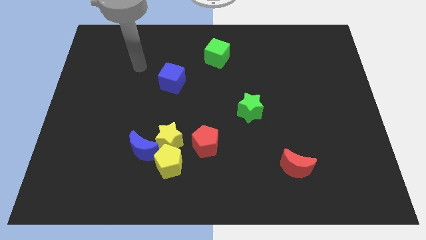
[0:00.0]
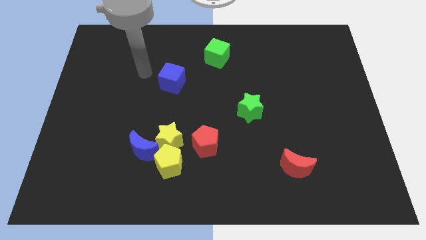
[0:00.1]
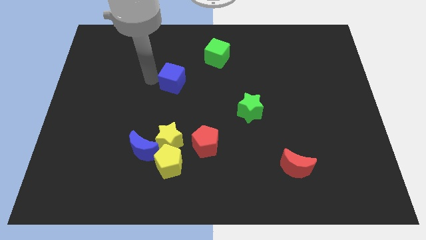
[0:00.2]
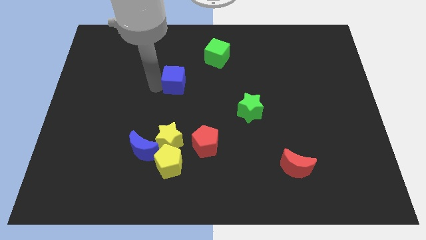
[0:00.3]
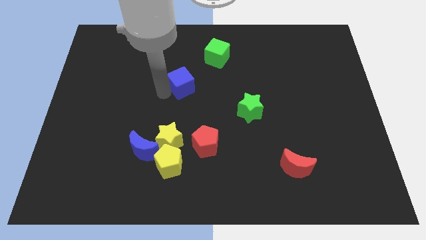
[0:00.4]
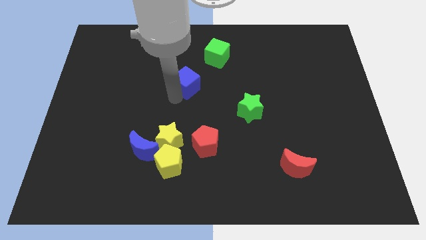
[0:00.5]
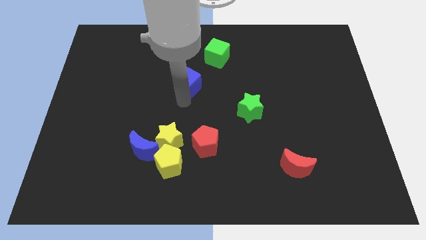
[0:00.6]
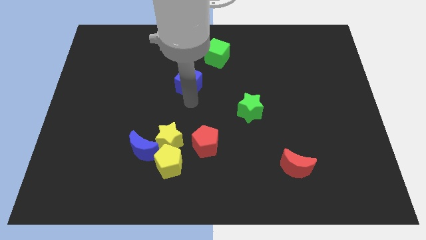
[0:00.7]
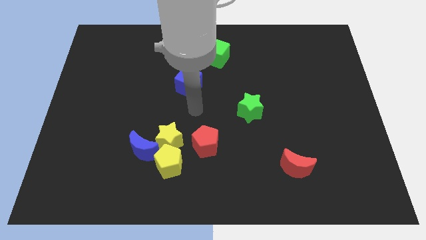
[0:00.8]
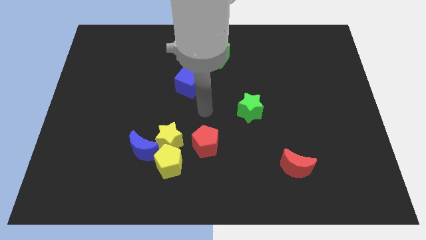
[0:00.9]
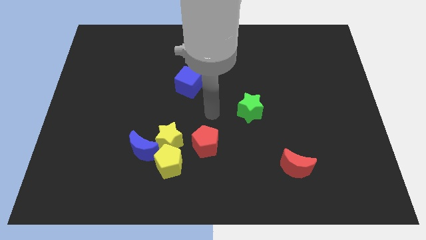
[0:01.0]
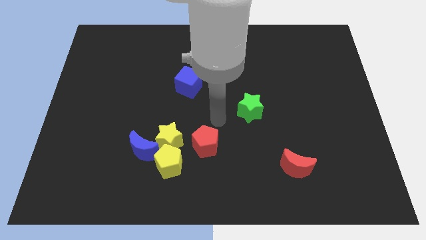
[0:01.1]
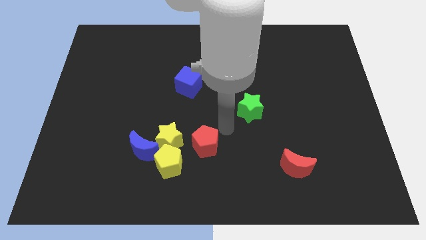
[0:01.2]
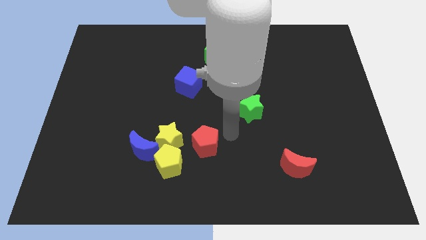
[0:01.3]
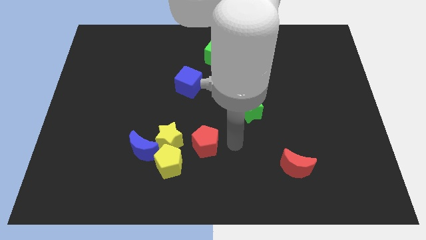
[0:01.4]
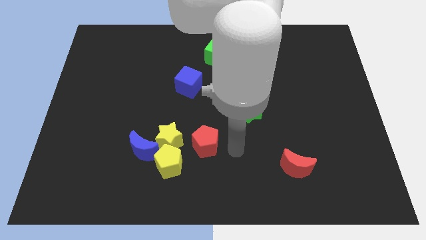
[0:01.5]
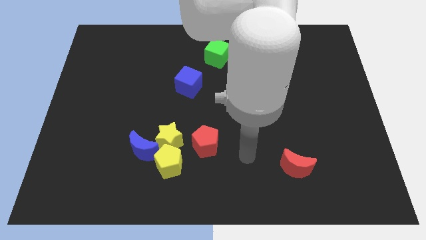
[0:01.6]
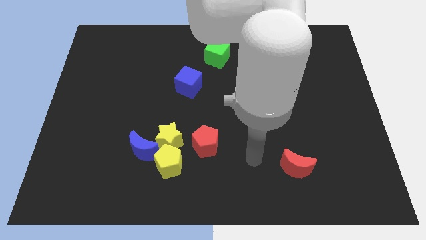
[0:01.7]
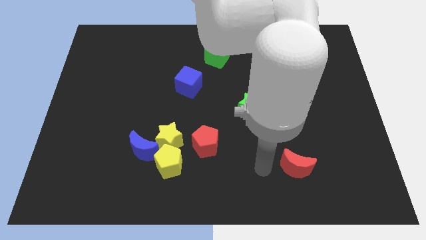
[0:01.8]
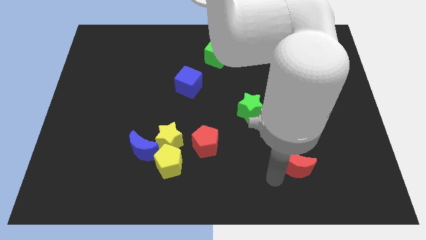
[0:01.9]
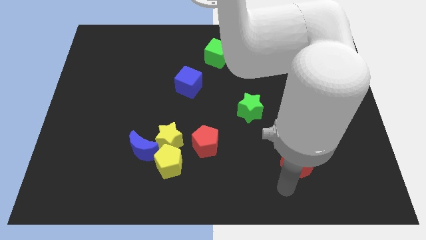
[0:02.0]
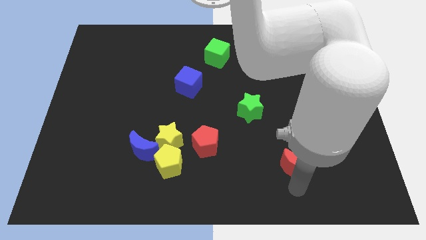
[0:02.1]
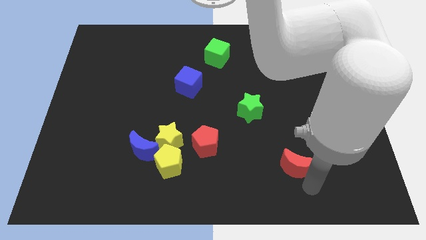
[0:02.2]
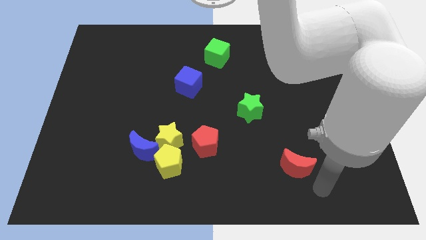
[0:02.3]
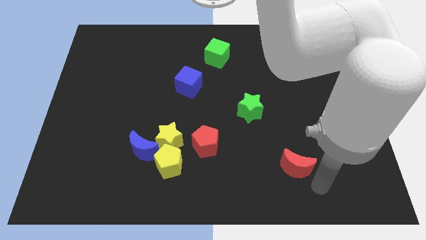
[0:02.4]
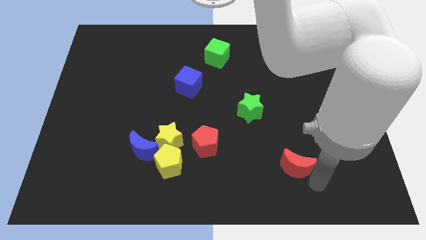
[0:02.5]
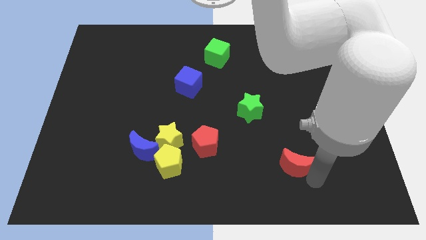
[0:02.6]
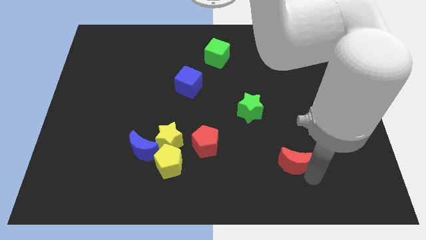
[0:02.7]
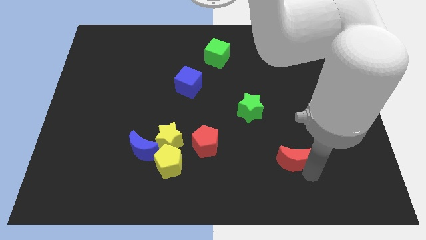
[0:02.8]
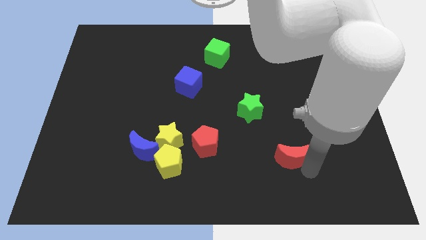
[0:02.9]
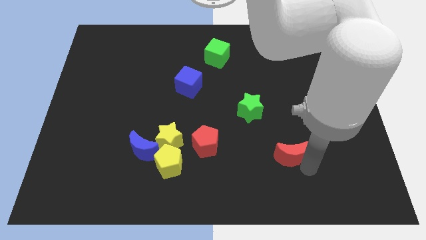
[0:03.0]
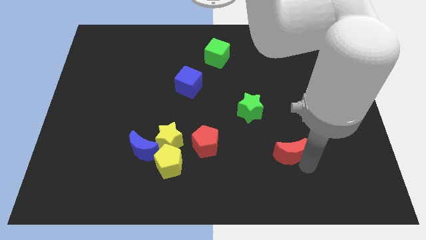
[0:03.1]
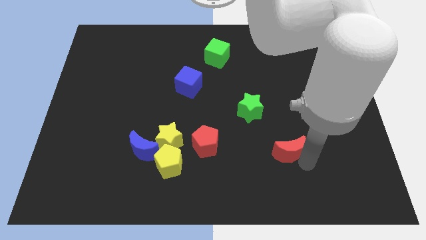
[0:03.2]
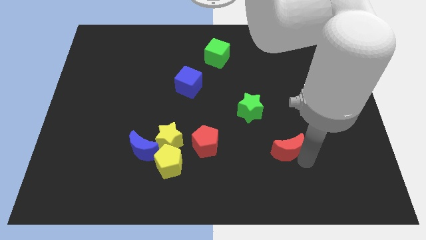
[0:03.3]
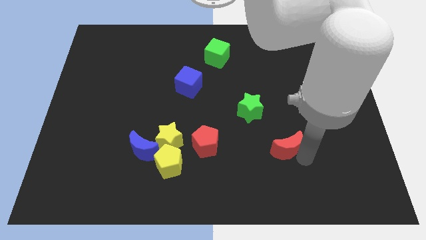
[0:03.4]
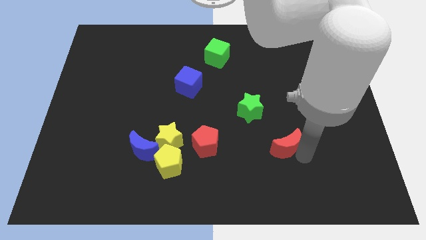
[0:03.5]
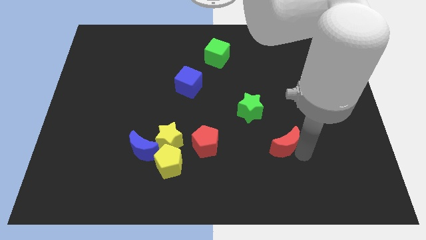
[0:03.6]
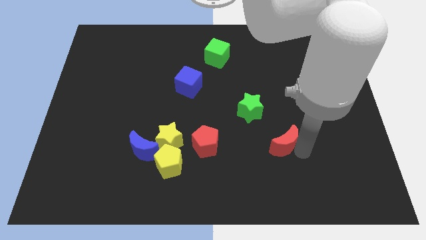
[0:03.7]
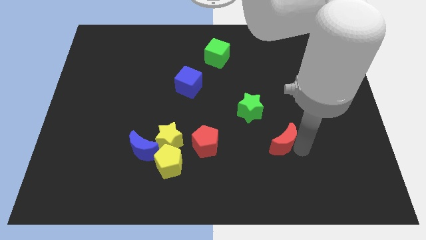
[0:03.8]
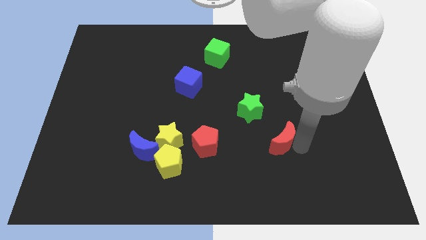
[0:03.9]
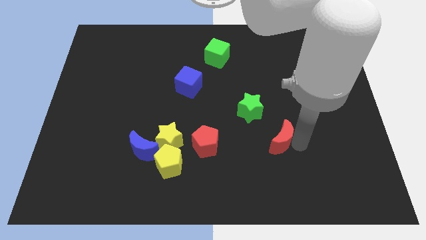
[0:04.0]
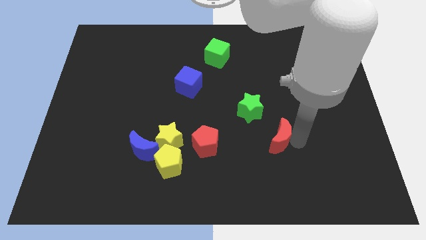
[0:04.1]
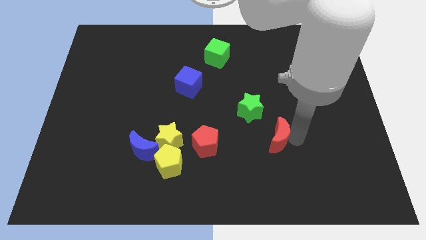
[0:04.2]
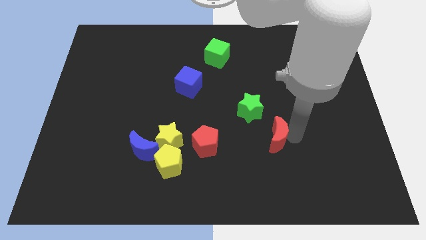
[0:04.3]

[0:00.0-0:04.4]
push the red moon up and then left a little bit

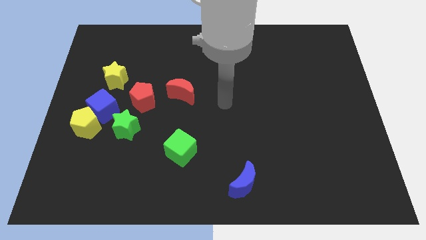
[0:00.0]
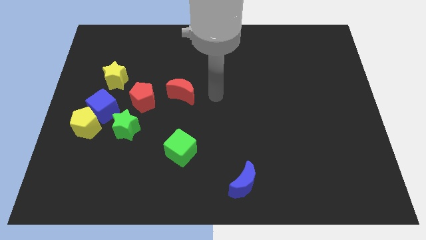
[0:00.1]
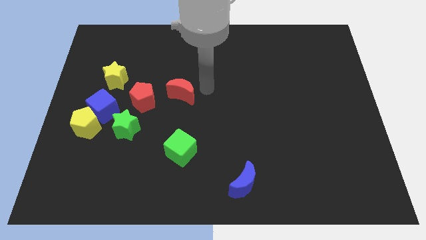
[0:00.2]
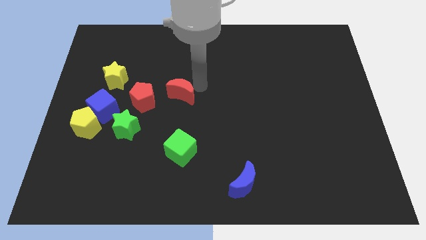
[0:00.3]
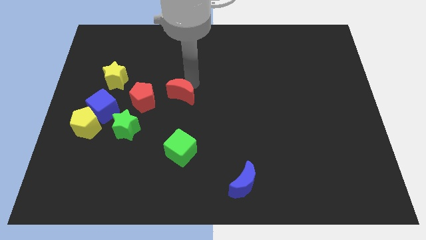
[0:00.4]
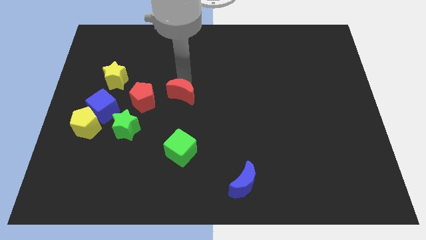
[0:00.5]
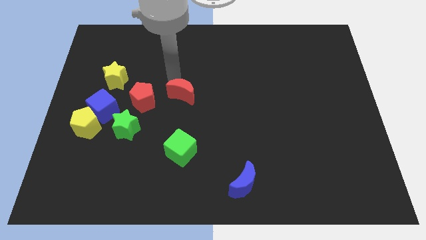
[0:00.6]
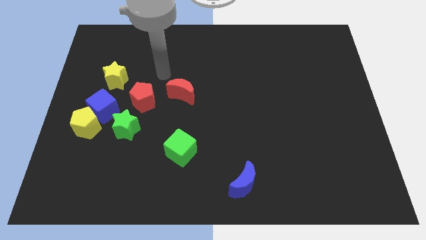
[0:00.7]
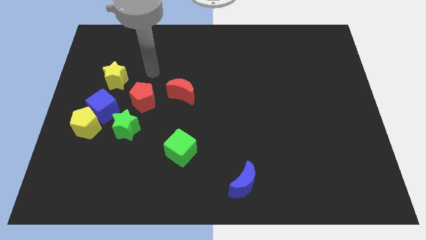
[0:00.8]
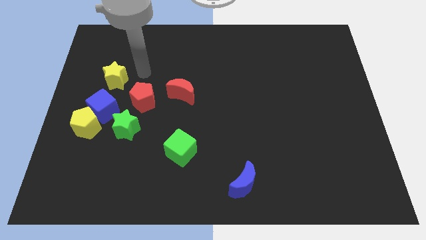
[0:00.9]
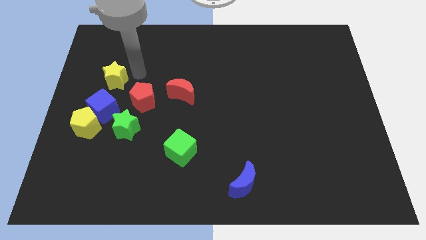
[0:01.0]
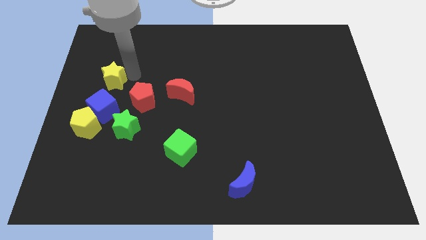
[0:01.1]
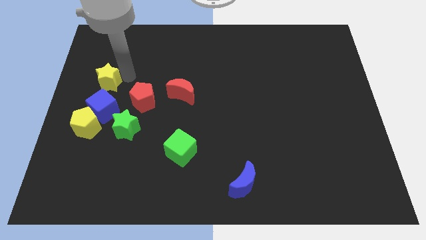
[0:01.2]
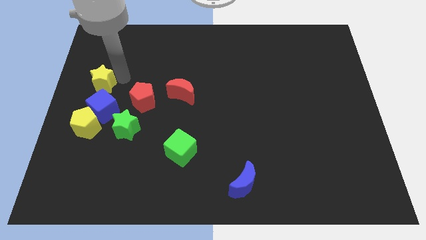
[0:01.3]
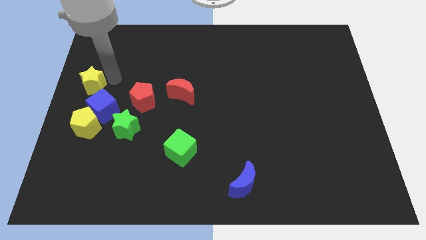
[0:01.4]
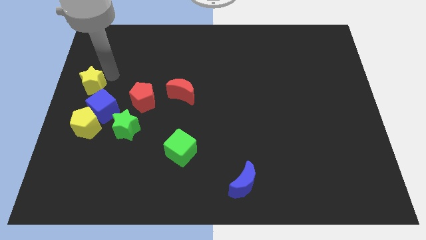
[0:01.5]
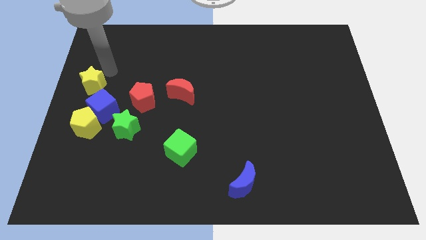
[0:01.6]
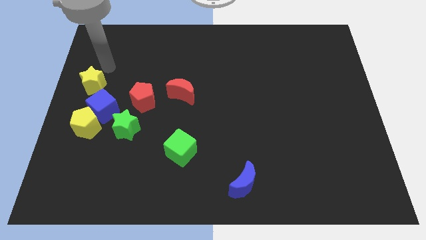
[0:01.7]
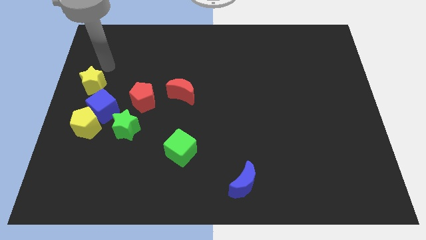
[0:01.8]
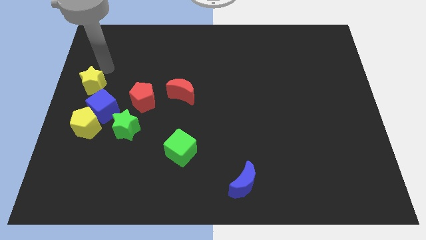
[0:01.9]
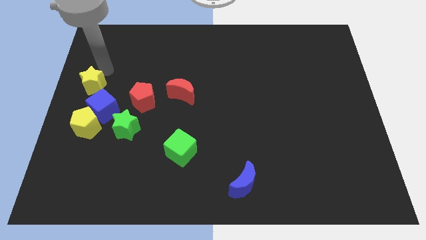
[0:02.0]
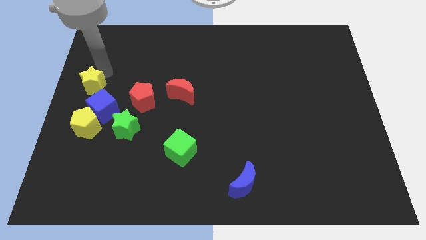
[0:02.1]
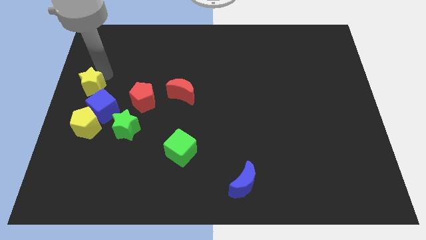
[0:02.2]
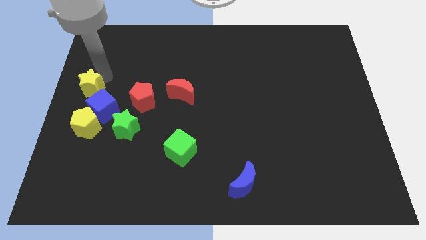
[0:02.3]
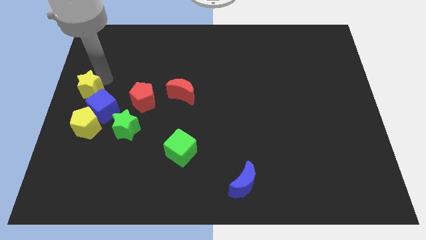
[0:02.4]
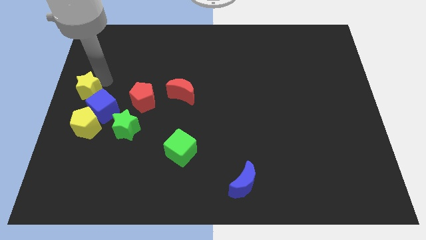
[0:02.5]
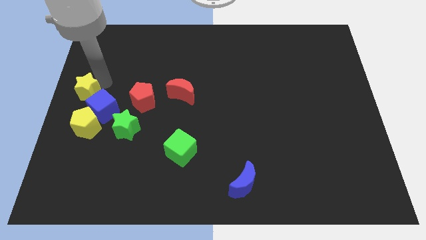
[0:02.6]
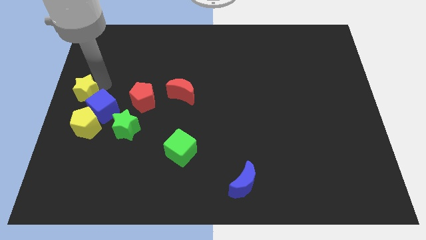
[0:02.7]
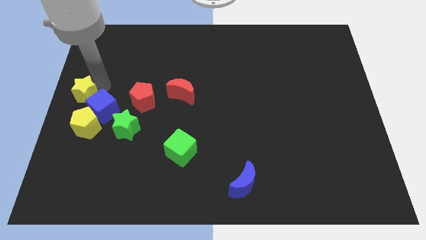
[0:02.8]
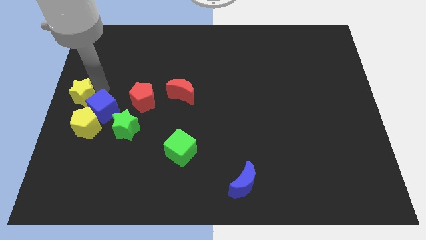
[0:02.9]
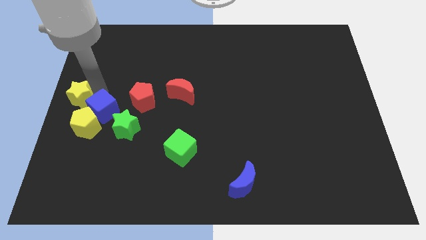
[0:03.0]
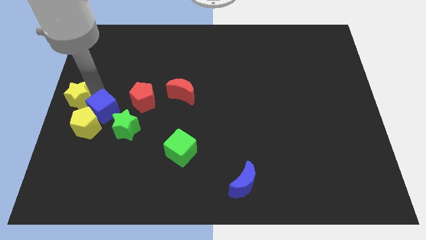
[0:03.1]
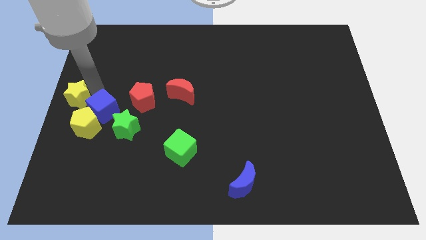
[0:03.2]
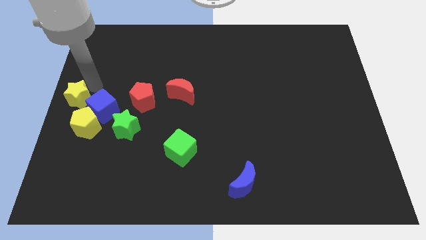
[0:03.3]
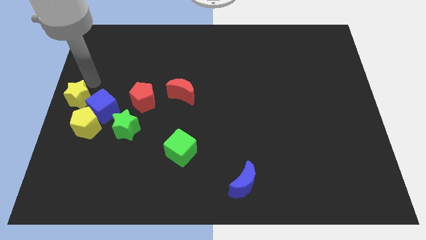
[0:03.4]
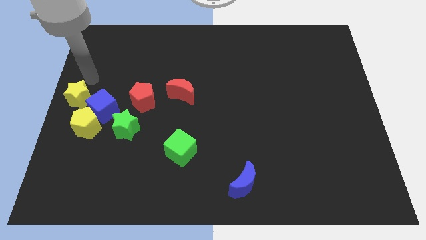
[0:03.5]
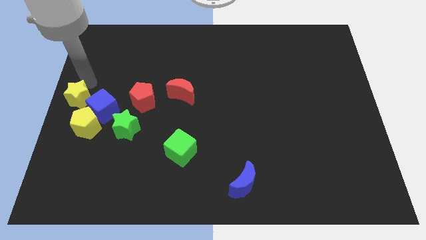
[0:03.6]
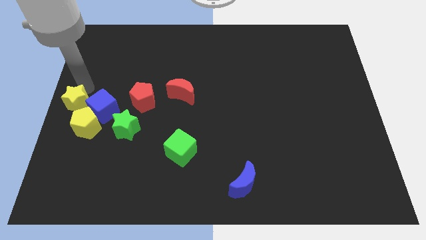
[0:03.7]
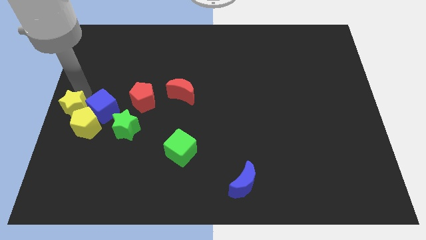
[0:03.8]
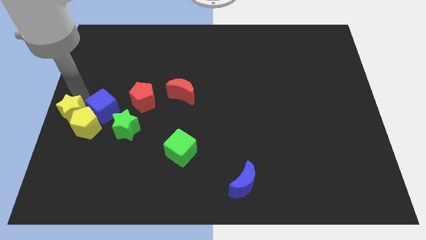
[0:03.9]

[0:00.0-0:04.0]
move the yellow star a little bit downwards
